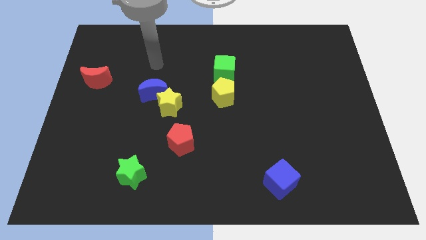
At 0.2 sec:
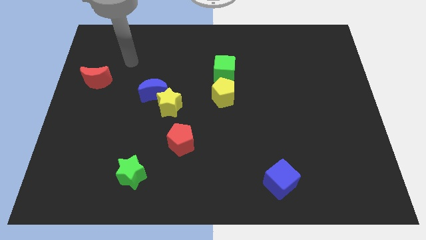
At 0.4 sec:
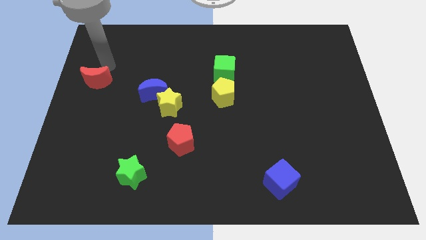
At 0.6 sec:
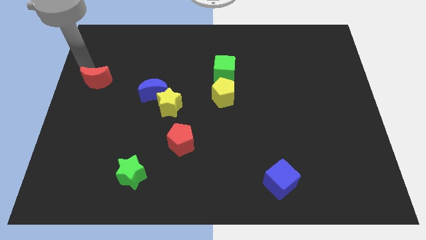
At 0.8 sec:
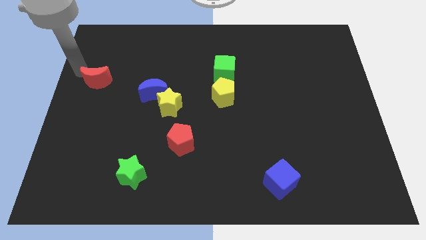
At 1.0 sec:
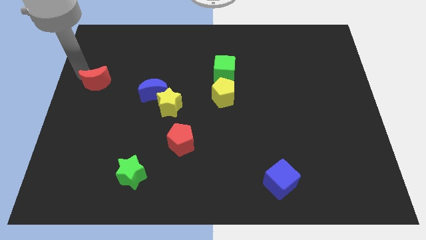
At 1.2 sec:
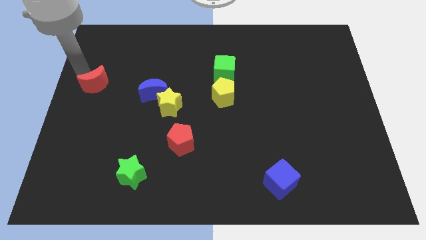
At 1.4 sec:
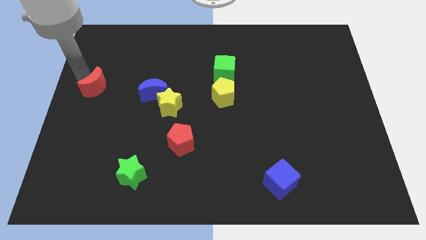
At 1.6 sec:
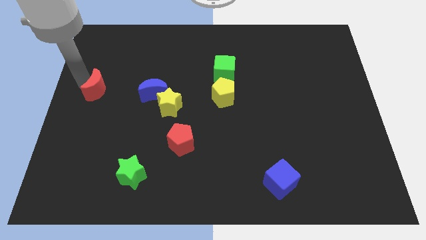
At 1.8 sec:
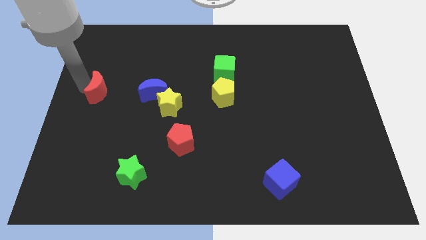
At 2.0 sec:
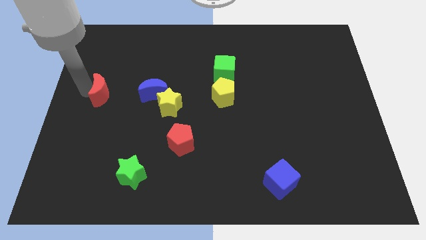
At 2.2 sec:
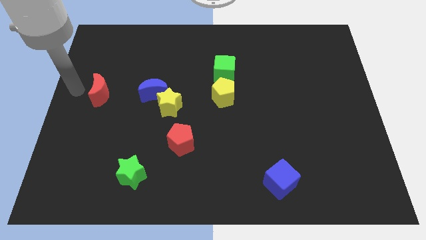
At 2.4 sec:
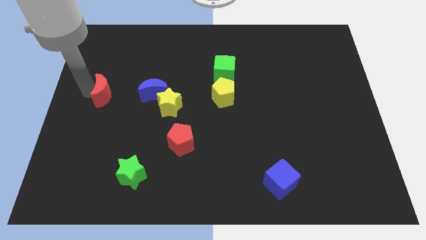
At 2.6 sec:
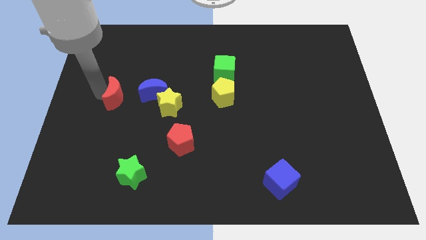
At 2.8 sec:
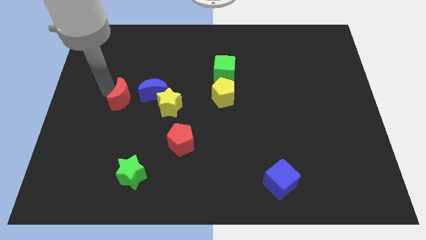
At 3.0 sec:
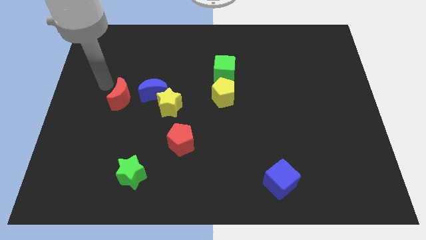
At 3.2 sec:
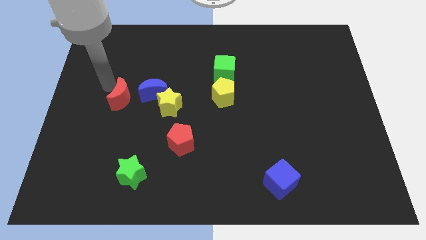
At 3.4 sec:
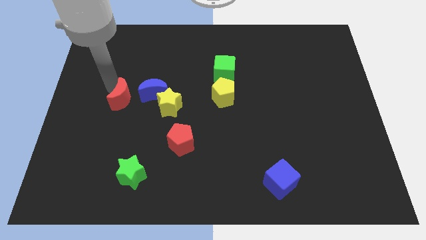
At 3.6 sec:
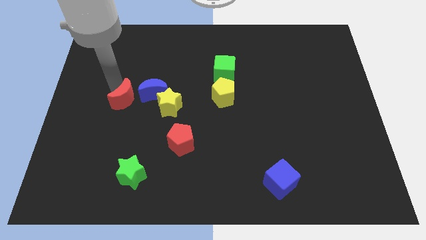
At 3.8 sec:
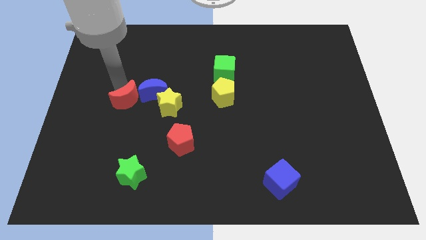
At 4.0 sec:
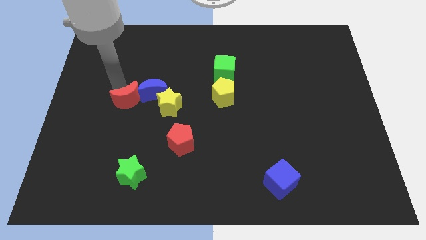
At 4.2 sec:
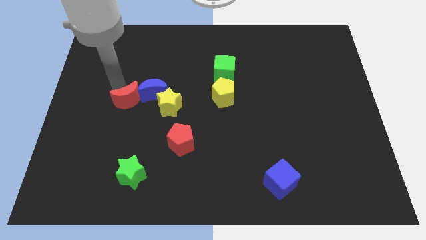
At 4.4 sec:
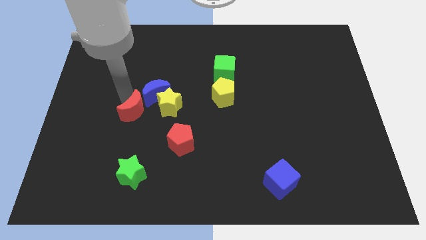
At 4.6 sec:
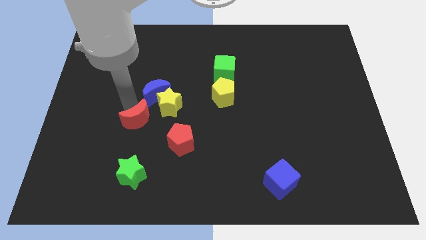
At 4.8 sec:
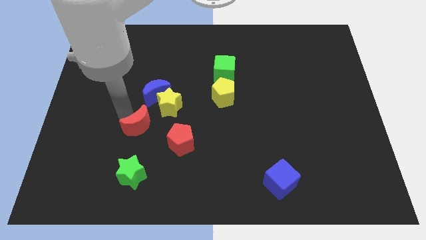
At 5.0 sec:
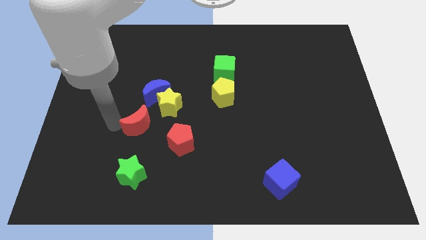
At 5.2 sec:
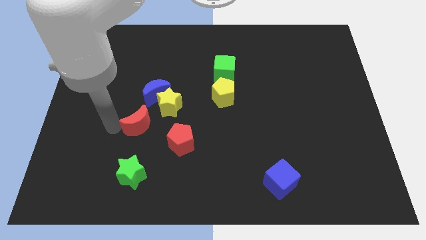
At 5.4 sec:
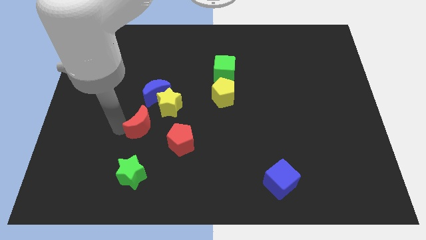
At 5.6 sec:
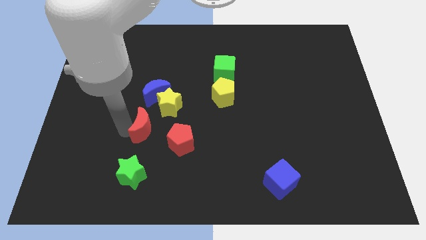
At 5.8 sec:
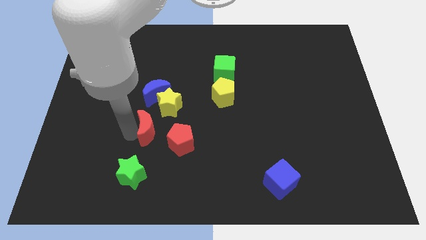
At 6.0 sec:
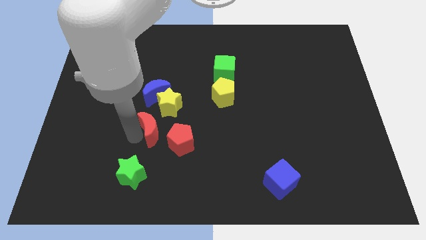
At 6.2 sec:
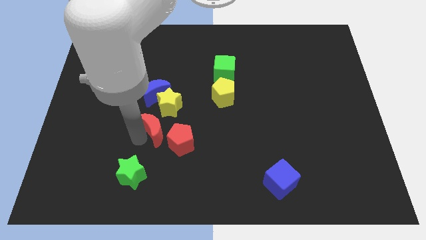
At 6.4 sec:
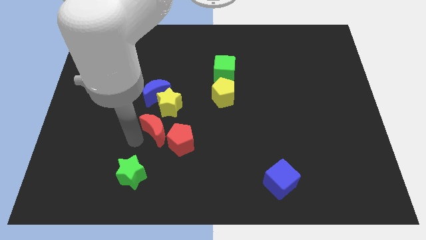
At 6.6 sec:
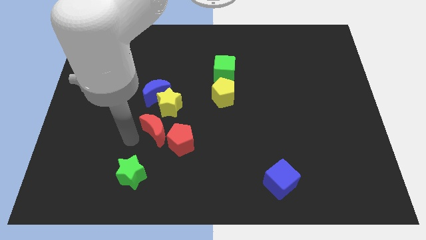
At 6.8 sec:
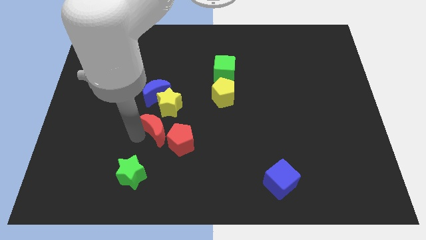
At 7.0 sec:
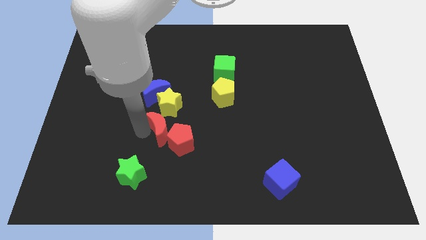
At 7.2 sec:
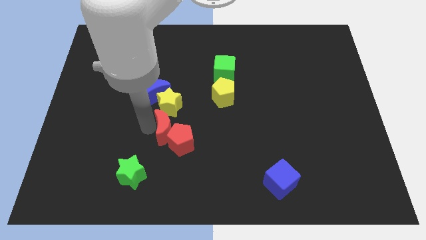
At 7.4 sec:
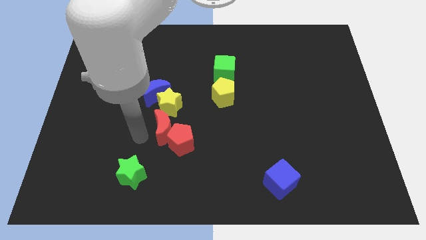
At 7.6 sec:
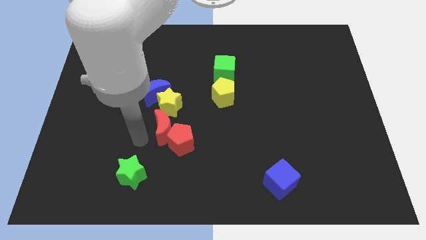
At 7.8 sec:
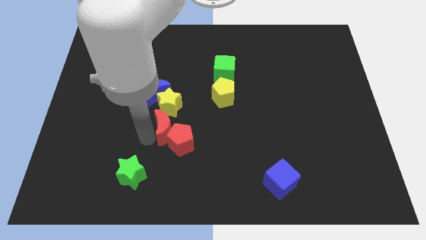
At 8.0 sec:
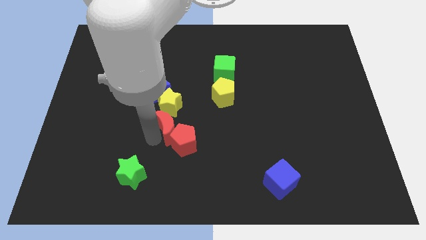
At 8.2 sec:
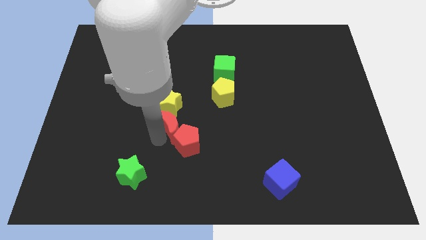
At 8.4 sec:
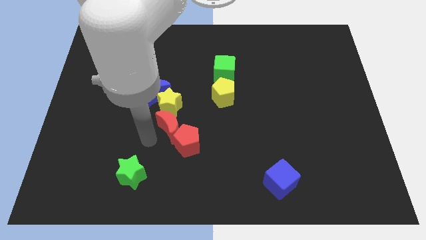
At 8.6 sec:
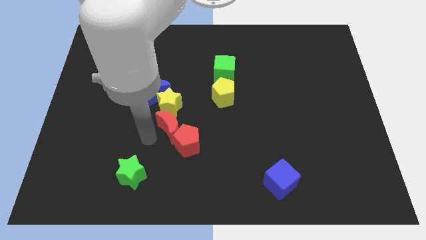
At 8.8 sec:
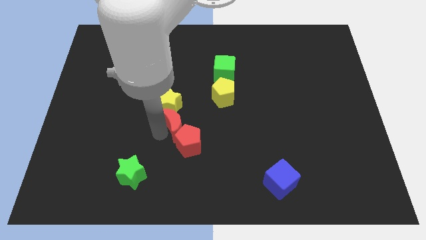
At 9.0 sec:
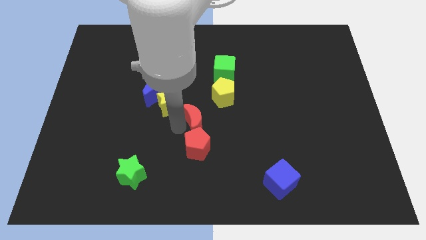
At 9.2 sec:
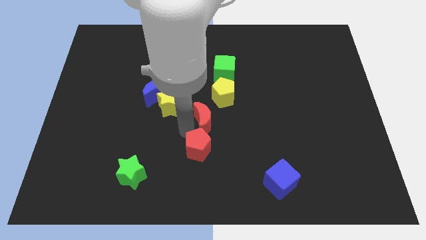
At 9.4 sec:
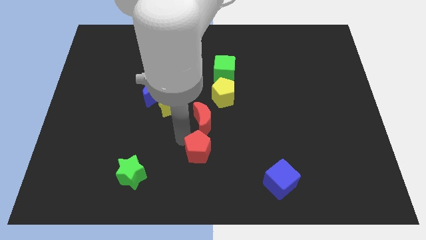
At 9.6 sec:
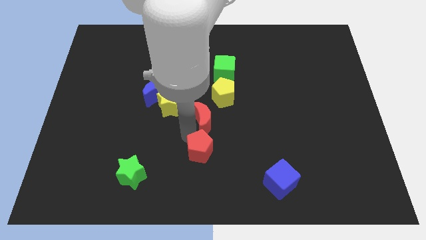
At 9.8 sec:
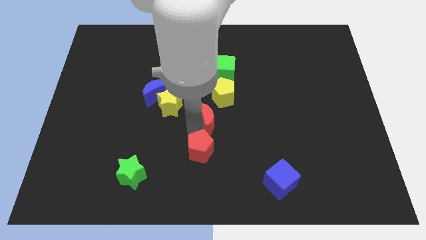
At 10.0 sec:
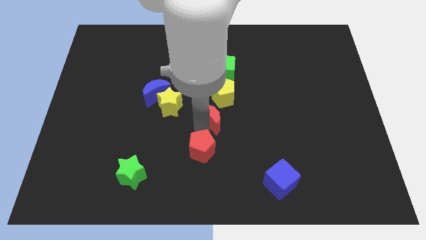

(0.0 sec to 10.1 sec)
put the red moon to the bottom side of the green cube
